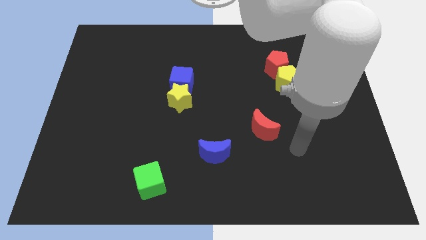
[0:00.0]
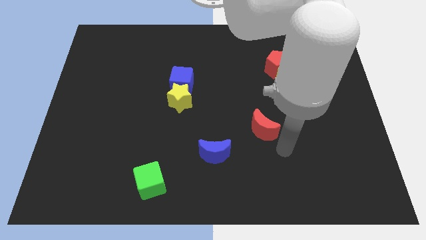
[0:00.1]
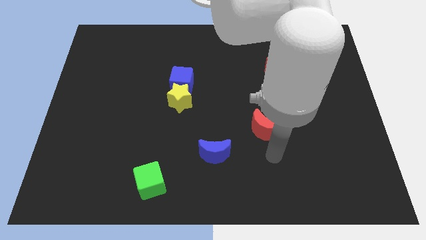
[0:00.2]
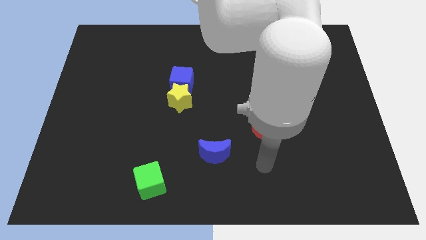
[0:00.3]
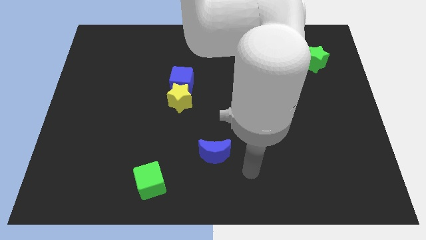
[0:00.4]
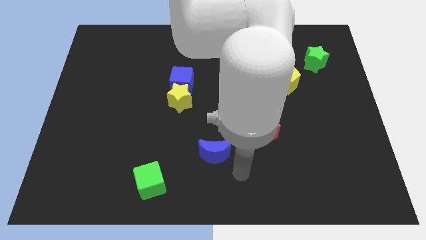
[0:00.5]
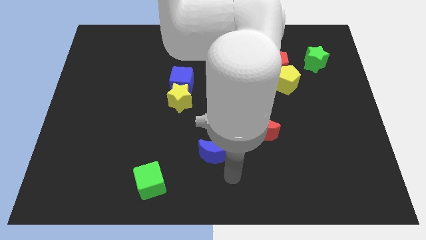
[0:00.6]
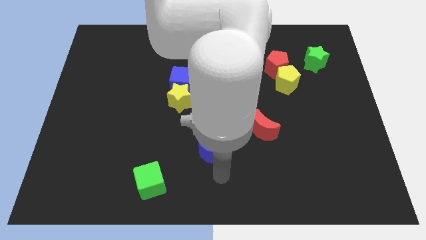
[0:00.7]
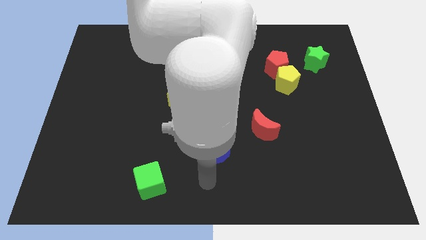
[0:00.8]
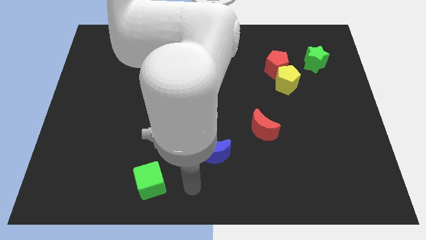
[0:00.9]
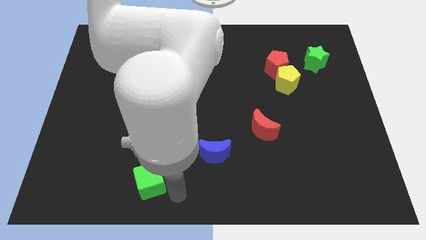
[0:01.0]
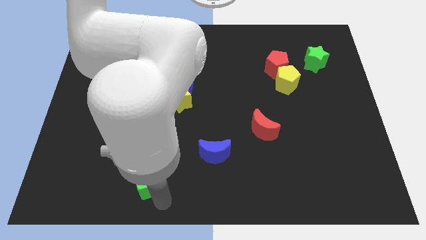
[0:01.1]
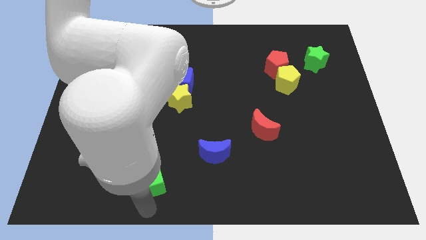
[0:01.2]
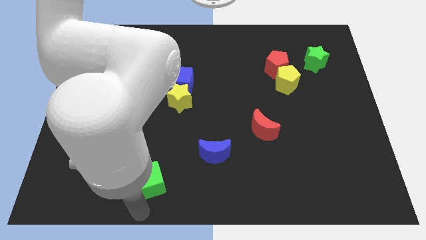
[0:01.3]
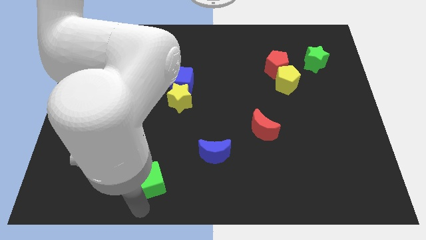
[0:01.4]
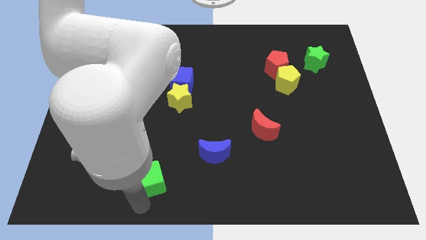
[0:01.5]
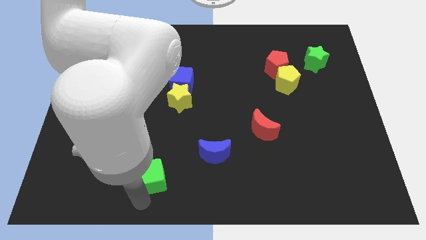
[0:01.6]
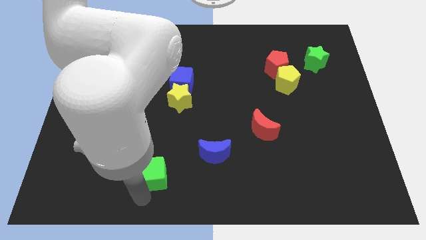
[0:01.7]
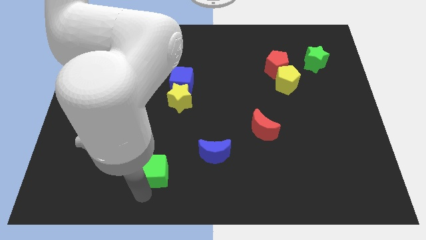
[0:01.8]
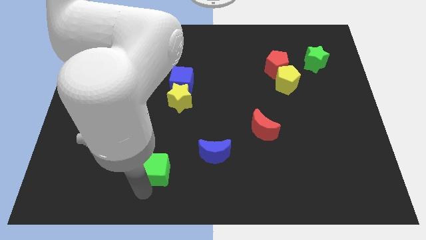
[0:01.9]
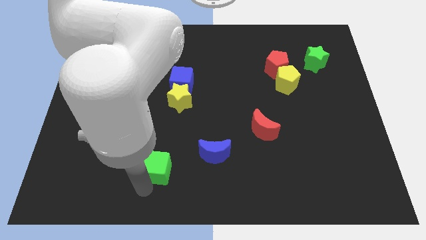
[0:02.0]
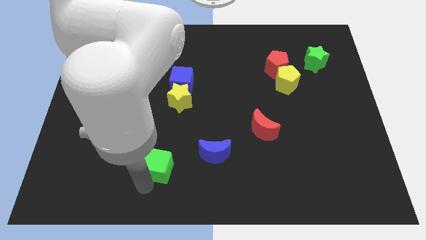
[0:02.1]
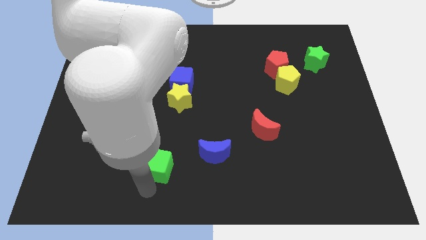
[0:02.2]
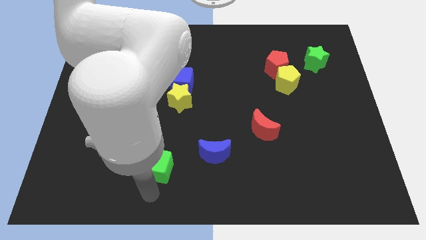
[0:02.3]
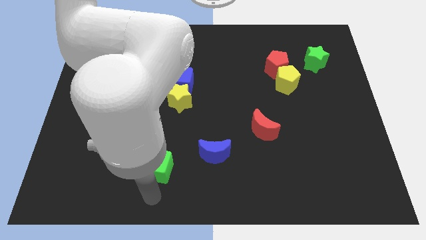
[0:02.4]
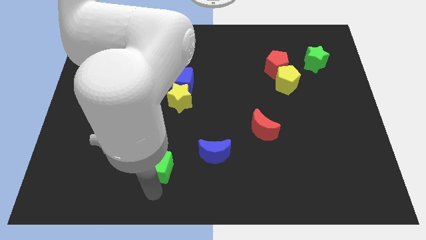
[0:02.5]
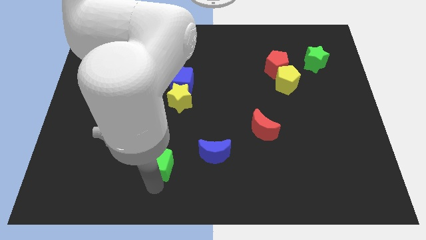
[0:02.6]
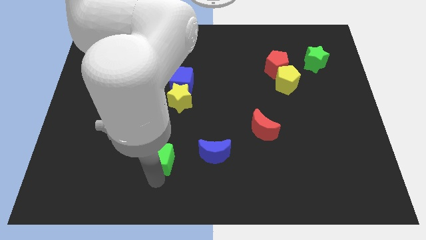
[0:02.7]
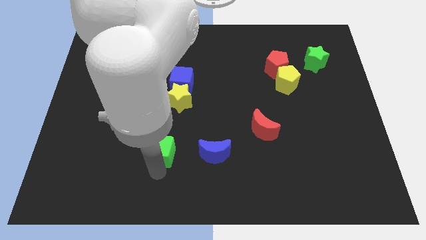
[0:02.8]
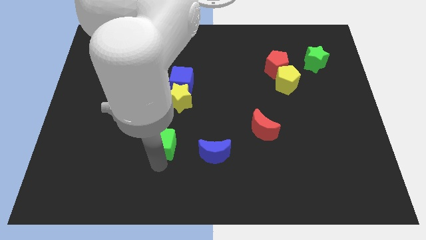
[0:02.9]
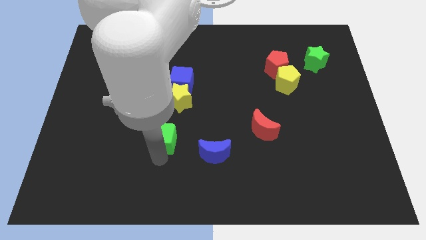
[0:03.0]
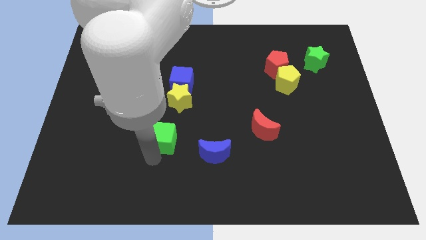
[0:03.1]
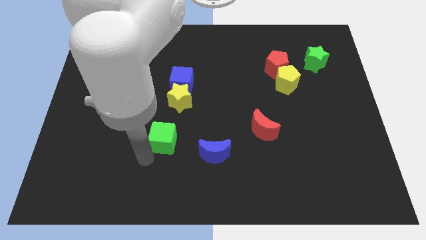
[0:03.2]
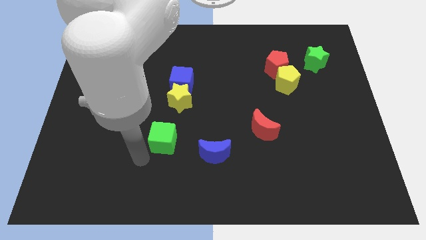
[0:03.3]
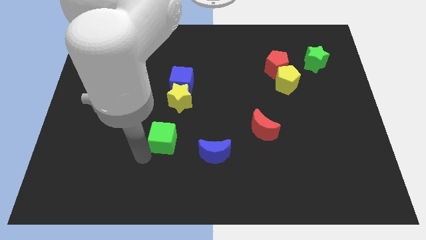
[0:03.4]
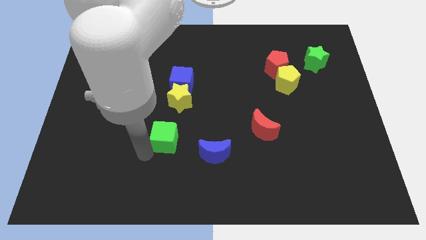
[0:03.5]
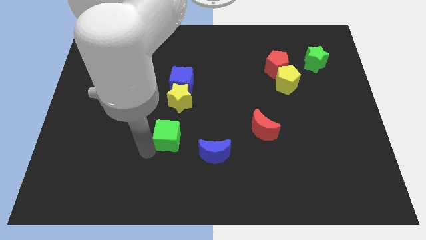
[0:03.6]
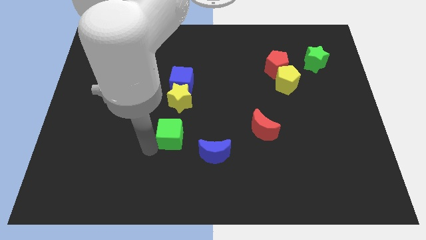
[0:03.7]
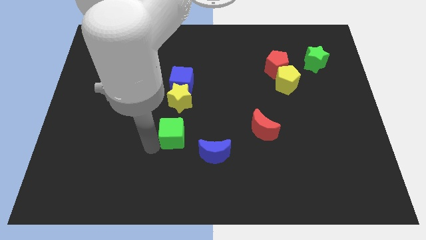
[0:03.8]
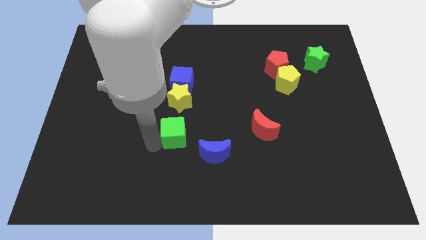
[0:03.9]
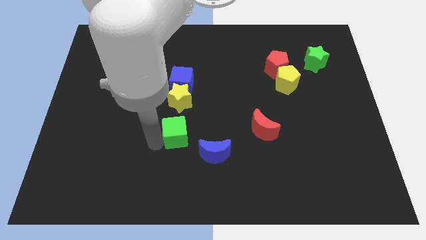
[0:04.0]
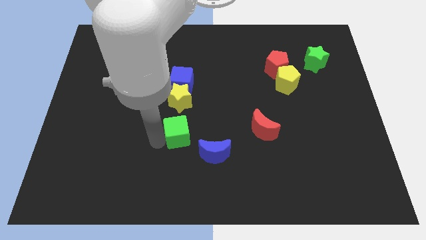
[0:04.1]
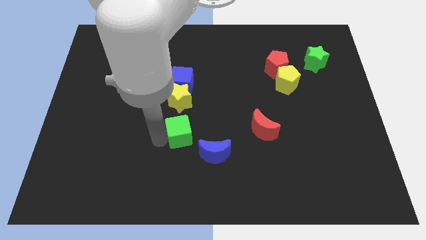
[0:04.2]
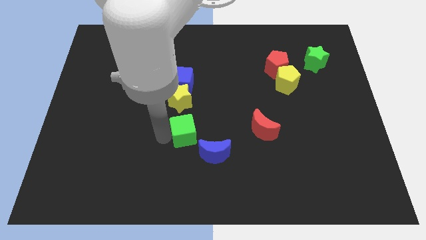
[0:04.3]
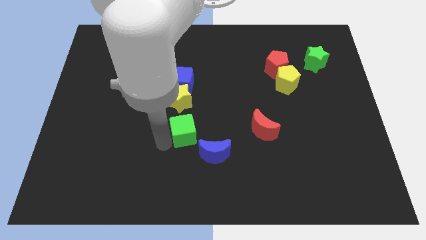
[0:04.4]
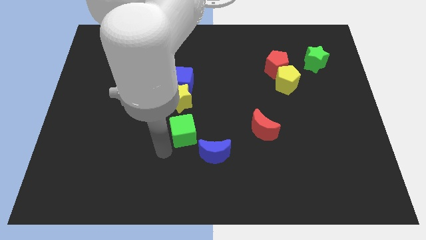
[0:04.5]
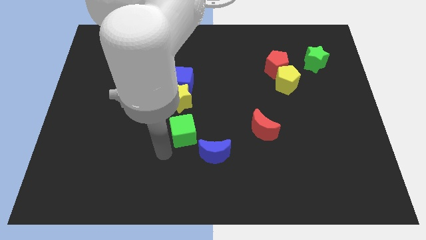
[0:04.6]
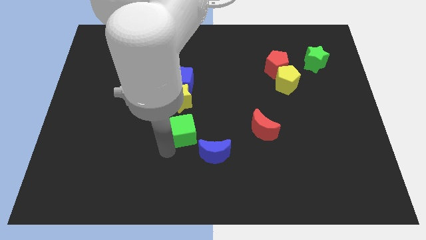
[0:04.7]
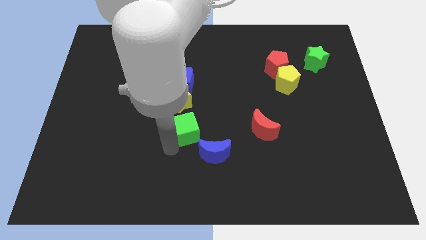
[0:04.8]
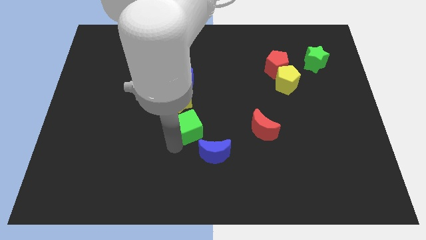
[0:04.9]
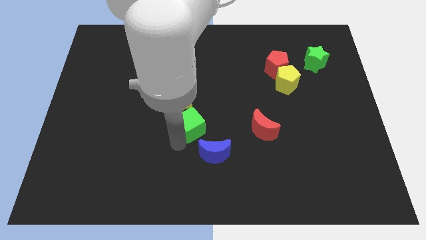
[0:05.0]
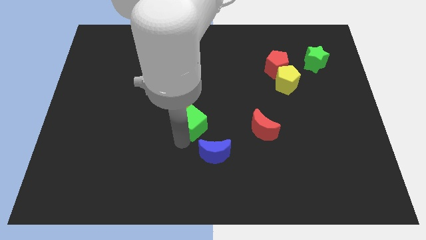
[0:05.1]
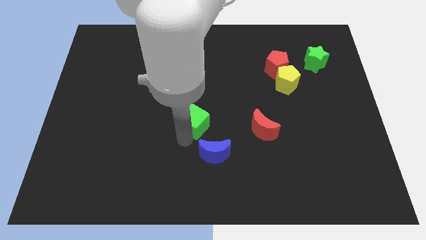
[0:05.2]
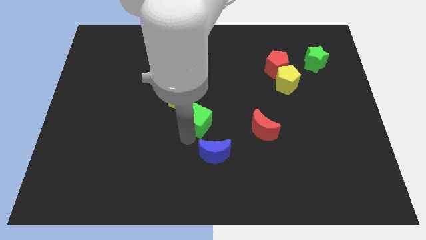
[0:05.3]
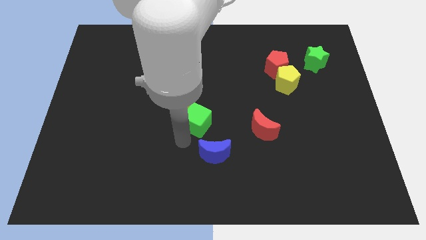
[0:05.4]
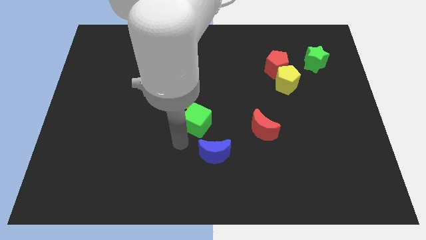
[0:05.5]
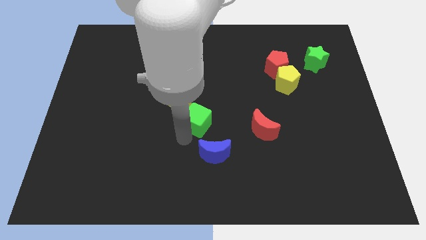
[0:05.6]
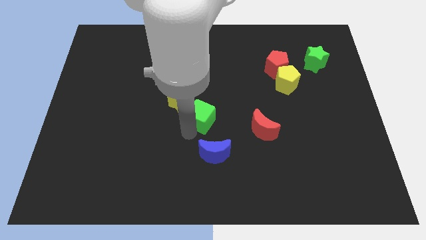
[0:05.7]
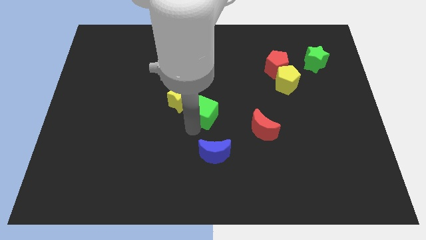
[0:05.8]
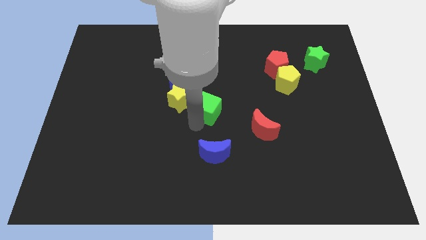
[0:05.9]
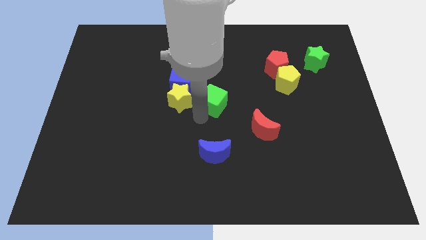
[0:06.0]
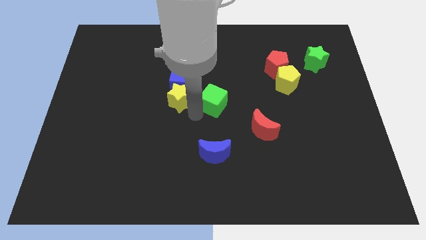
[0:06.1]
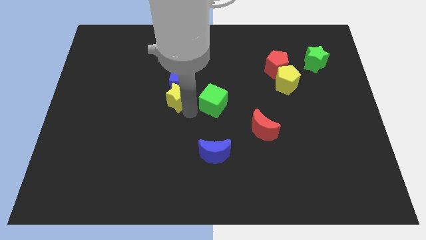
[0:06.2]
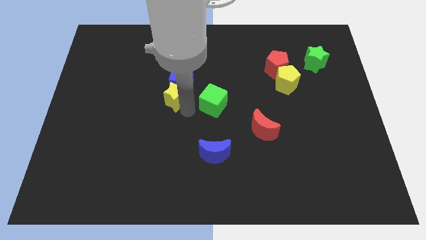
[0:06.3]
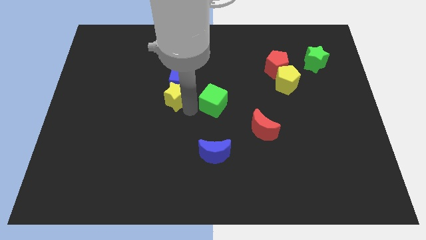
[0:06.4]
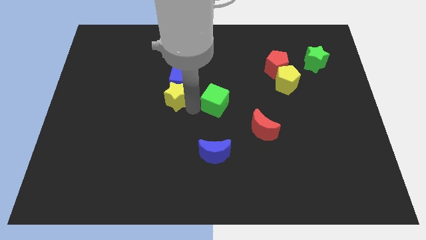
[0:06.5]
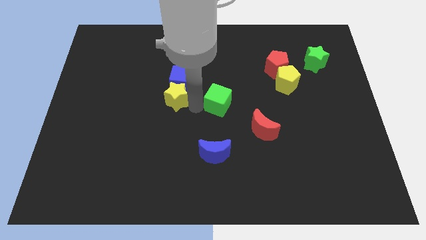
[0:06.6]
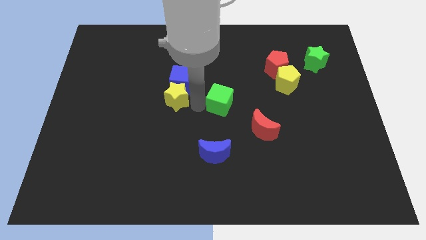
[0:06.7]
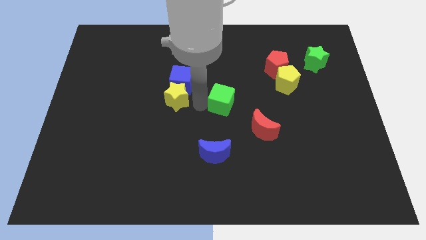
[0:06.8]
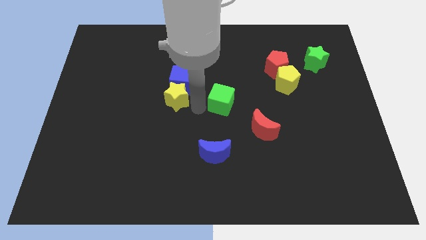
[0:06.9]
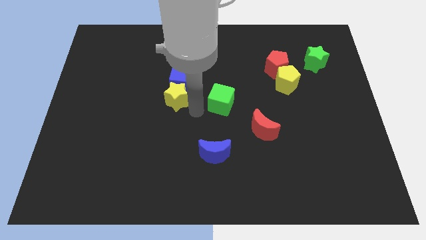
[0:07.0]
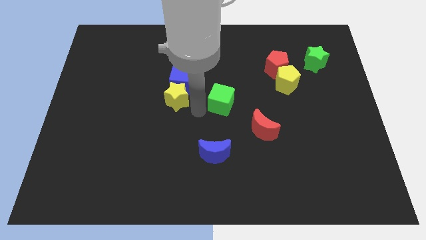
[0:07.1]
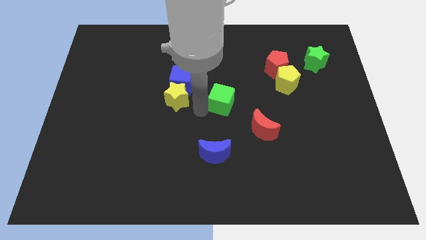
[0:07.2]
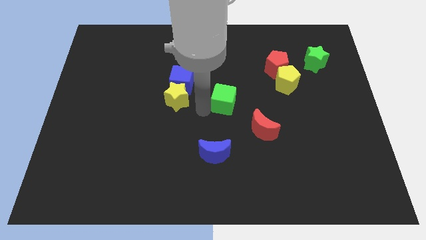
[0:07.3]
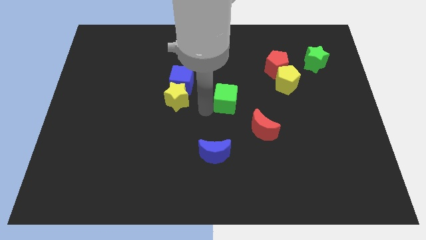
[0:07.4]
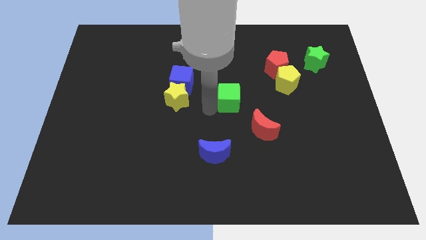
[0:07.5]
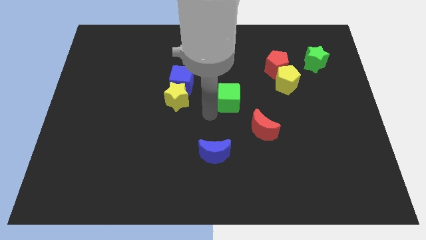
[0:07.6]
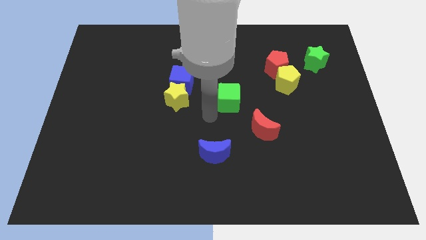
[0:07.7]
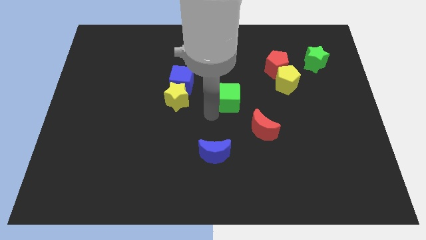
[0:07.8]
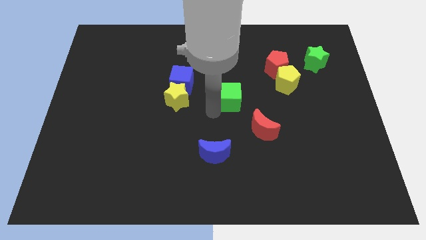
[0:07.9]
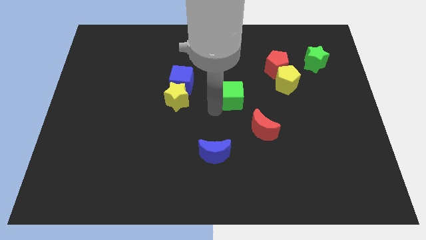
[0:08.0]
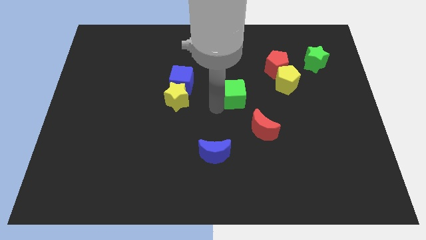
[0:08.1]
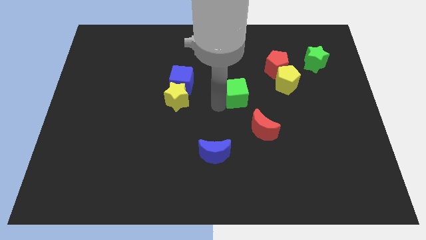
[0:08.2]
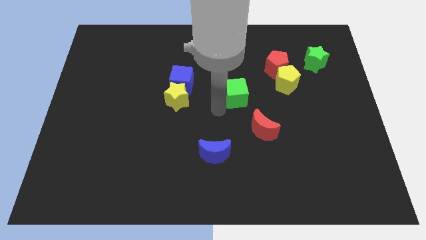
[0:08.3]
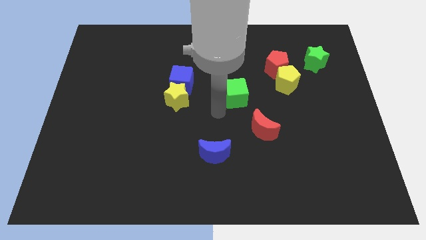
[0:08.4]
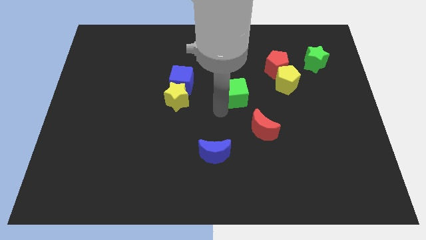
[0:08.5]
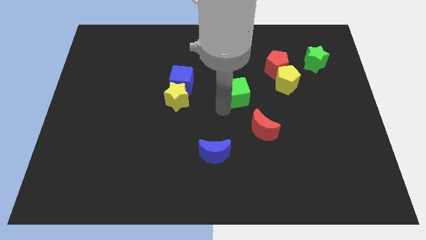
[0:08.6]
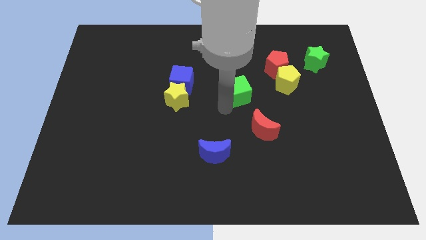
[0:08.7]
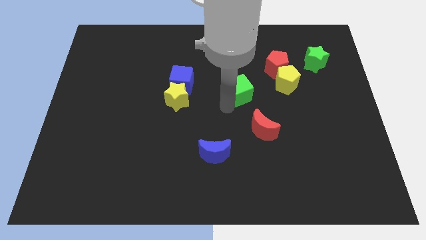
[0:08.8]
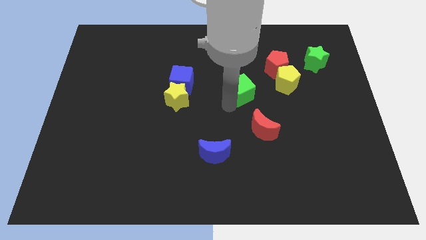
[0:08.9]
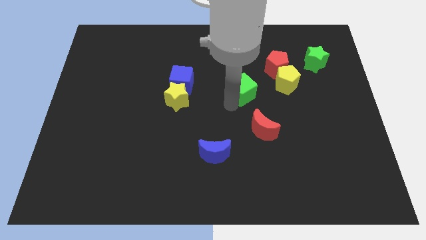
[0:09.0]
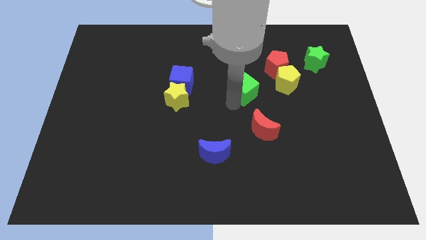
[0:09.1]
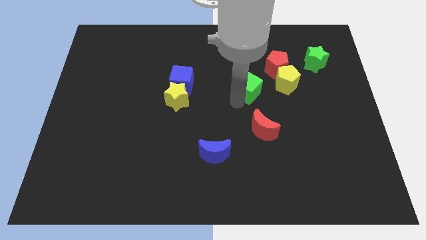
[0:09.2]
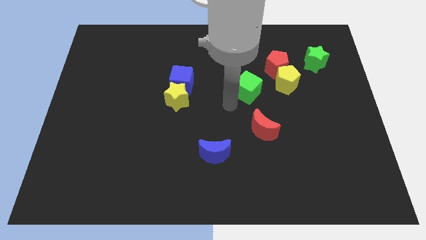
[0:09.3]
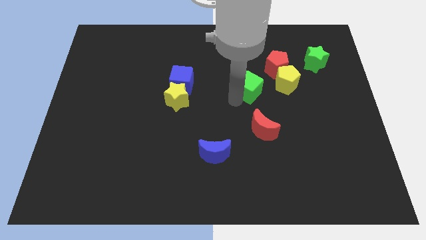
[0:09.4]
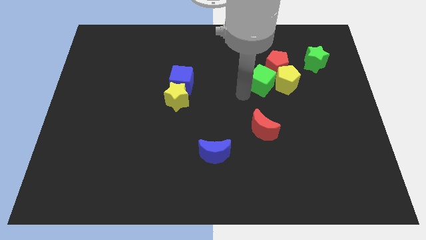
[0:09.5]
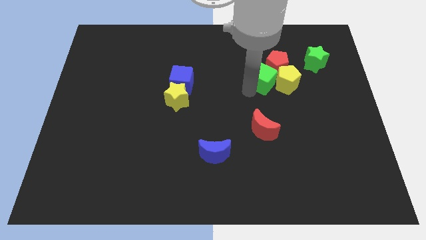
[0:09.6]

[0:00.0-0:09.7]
slide the green cube to the red pentagon
